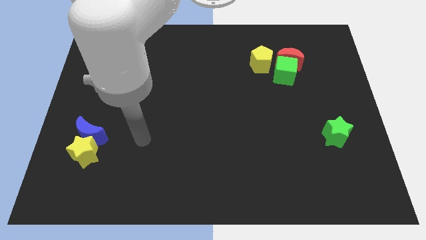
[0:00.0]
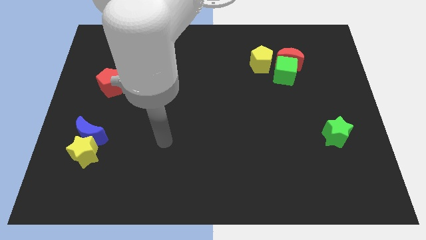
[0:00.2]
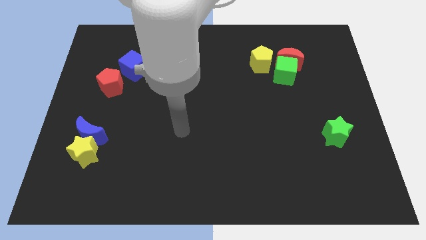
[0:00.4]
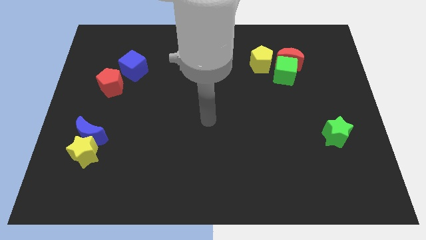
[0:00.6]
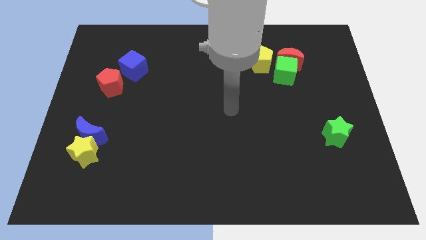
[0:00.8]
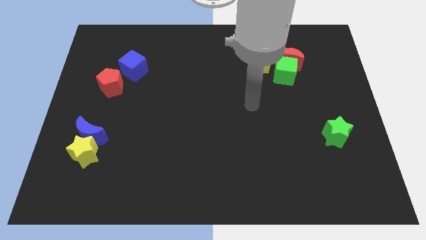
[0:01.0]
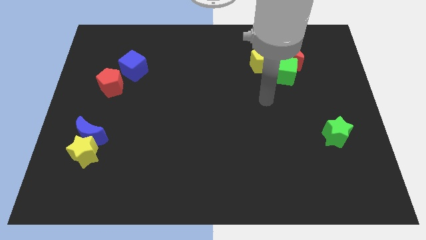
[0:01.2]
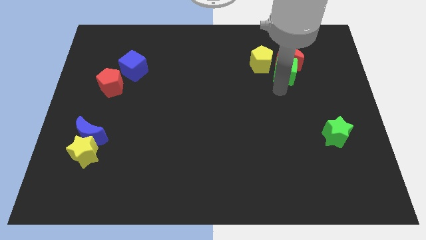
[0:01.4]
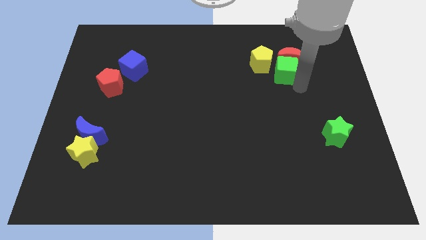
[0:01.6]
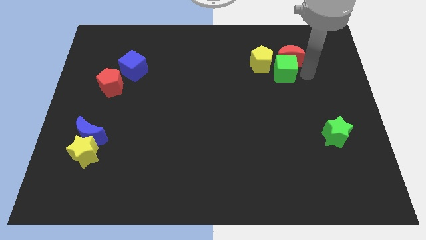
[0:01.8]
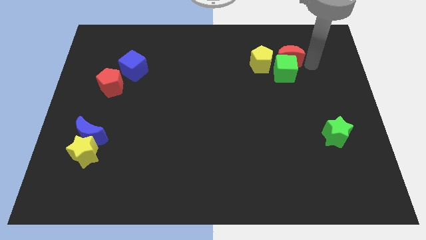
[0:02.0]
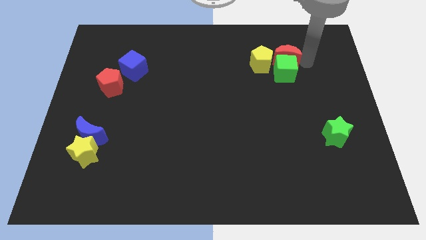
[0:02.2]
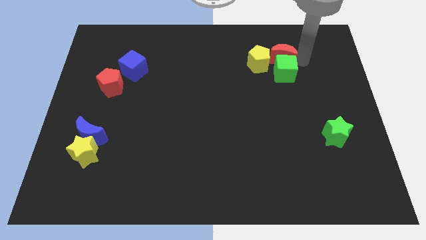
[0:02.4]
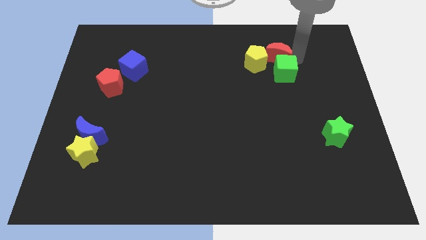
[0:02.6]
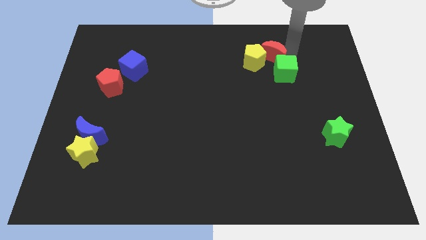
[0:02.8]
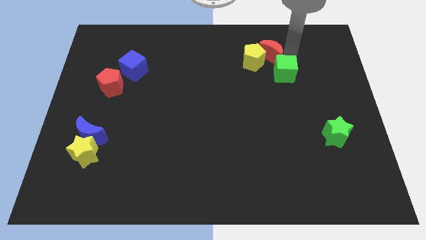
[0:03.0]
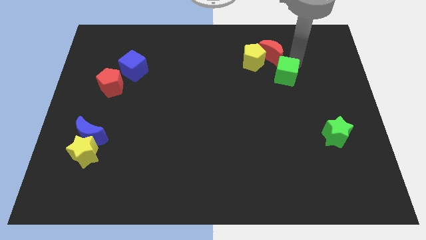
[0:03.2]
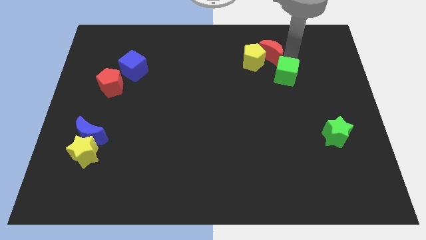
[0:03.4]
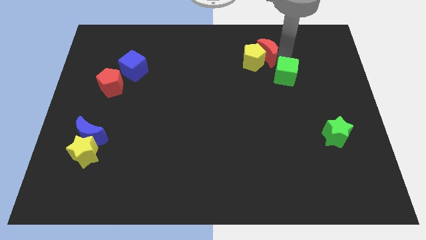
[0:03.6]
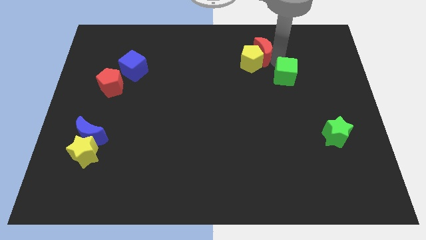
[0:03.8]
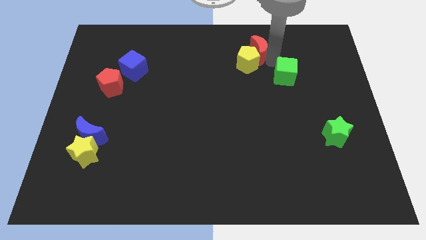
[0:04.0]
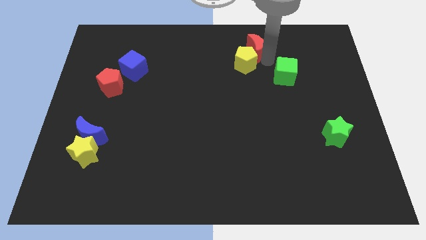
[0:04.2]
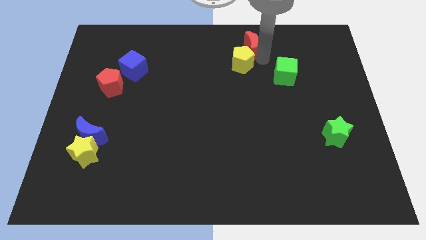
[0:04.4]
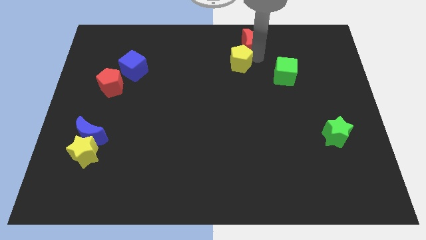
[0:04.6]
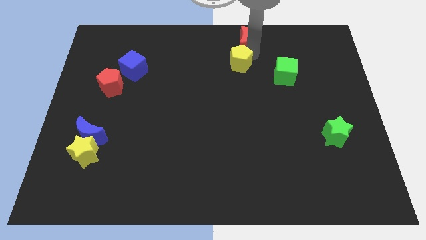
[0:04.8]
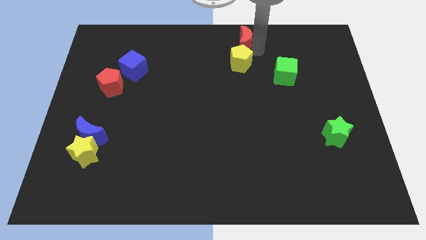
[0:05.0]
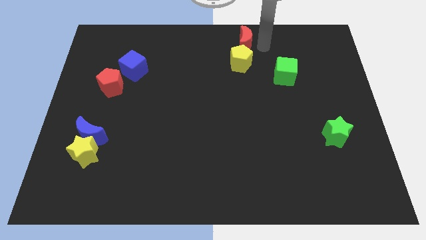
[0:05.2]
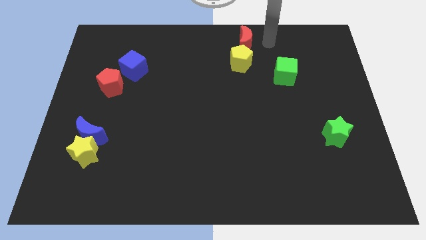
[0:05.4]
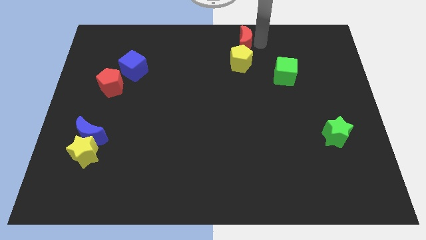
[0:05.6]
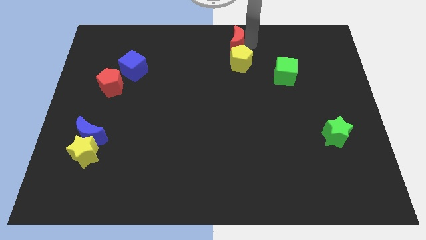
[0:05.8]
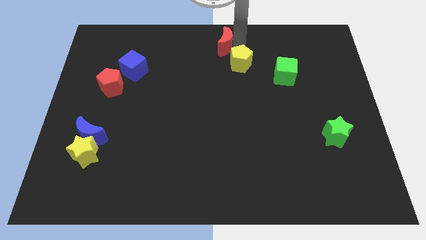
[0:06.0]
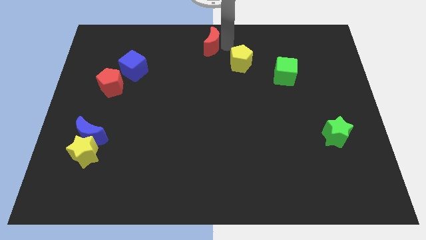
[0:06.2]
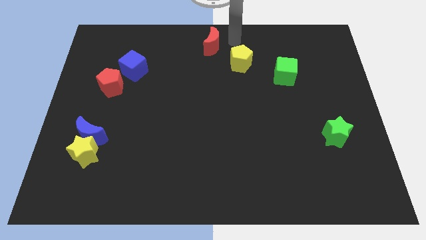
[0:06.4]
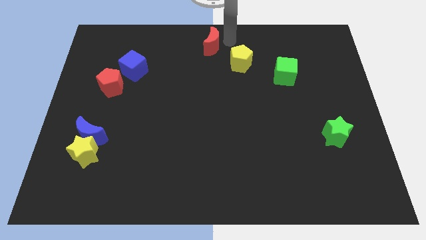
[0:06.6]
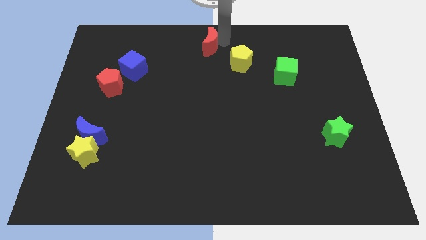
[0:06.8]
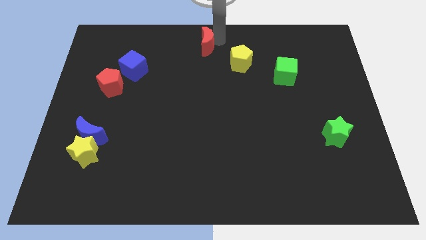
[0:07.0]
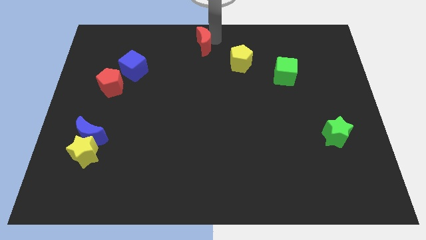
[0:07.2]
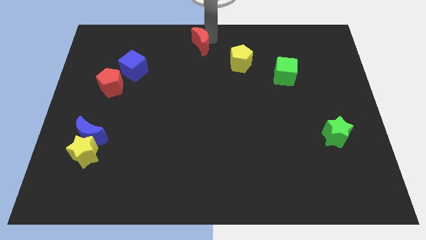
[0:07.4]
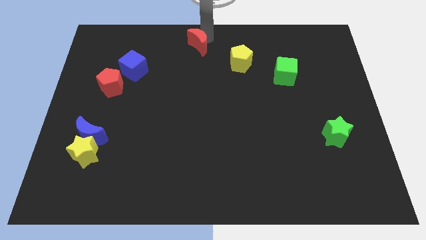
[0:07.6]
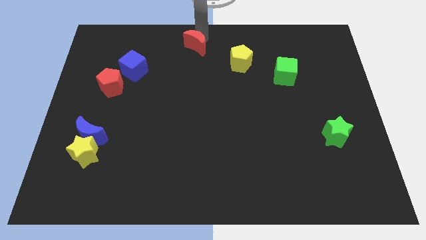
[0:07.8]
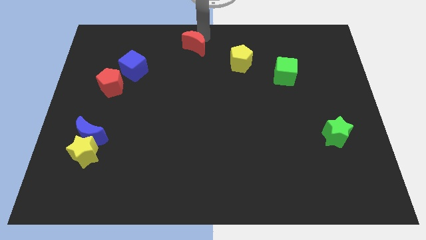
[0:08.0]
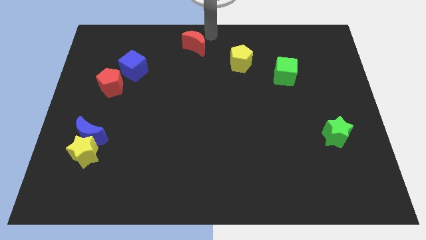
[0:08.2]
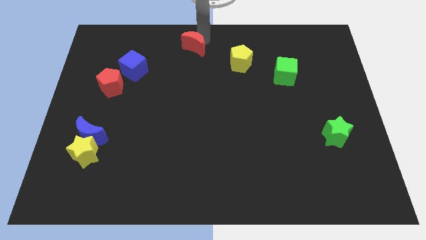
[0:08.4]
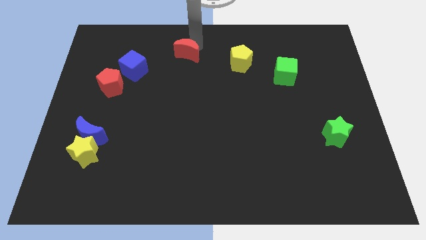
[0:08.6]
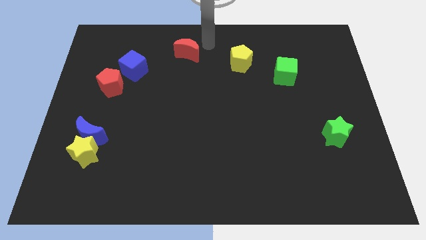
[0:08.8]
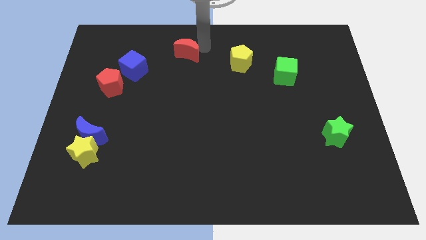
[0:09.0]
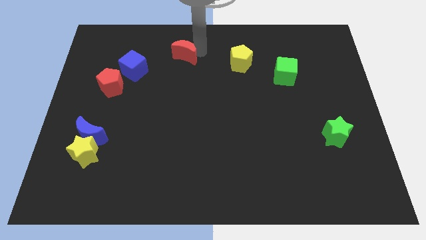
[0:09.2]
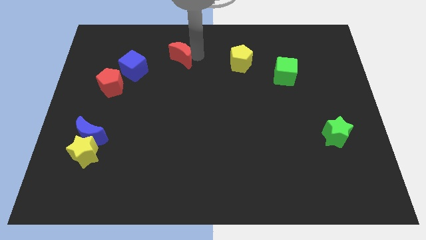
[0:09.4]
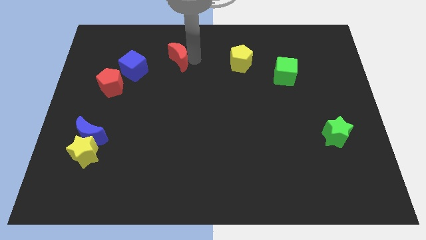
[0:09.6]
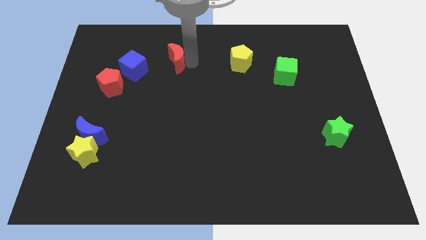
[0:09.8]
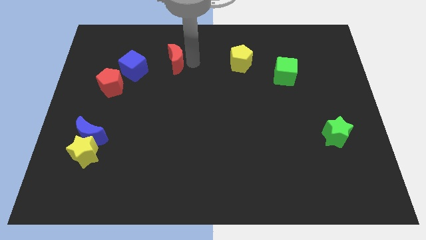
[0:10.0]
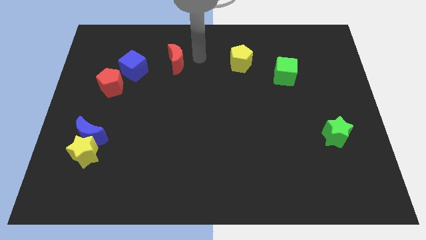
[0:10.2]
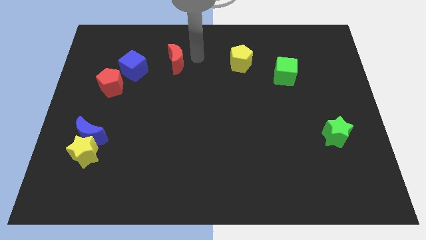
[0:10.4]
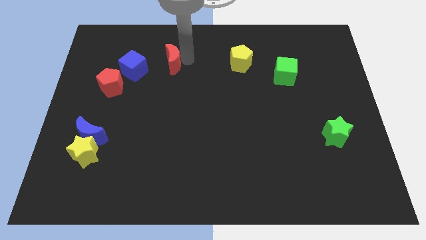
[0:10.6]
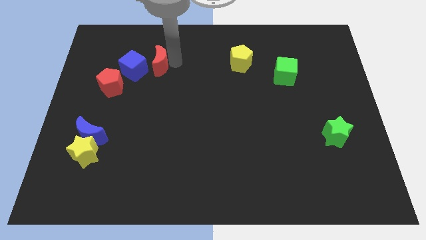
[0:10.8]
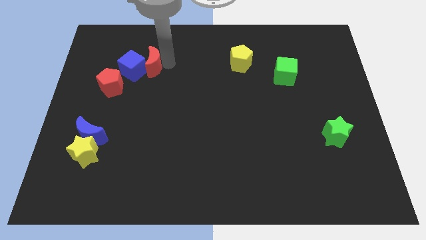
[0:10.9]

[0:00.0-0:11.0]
put the red moon next to the blue cube

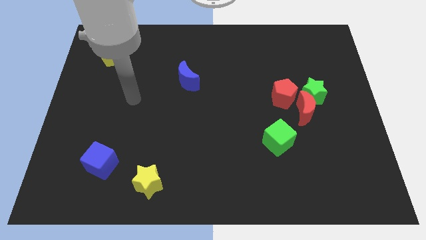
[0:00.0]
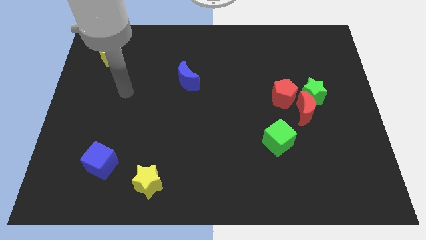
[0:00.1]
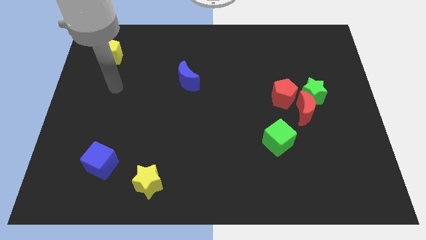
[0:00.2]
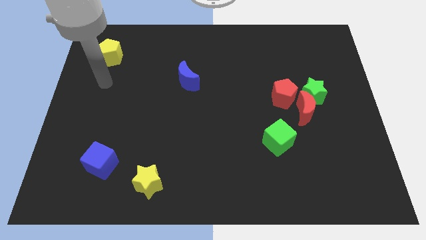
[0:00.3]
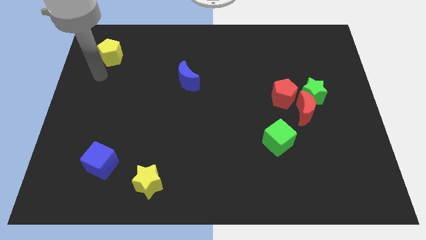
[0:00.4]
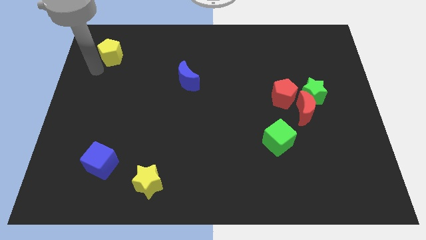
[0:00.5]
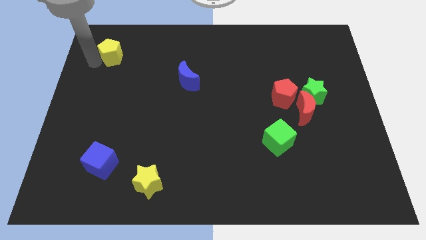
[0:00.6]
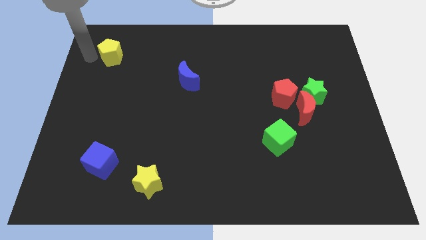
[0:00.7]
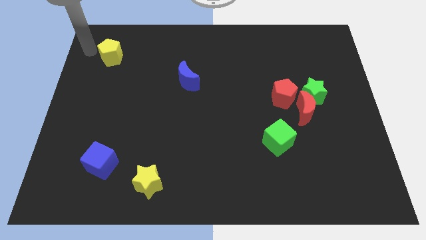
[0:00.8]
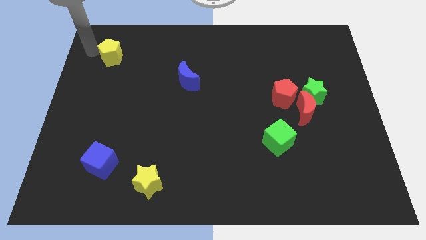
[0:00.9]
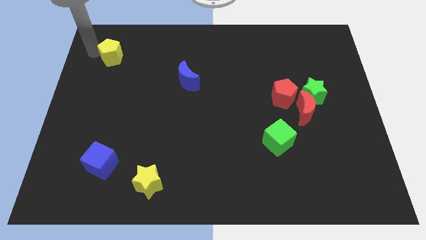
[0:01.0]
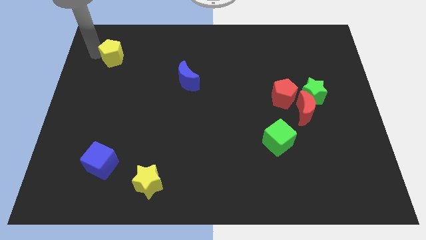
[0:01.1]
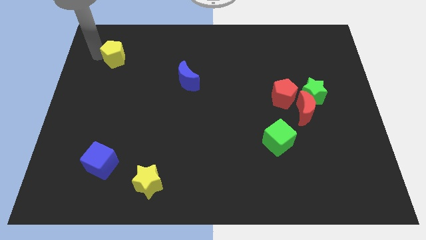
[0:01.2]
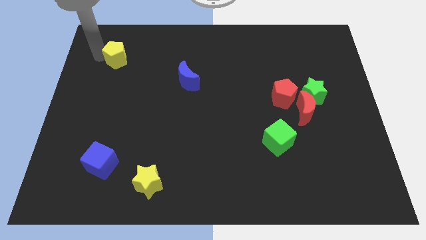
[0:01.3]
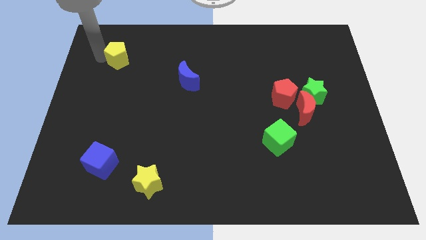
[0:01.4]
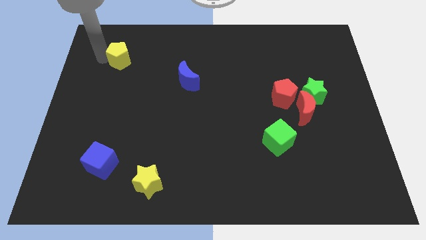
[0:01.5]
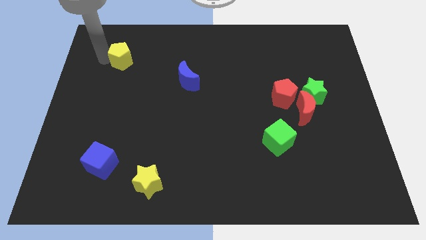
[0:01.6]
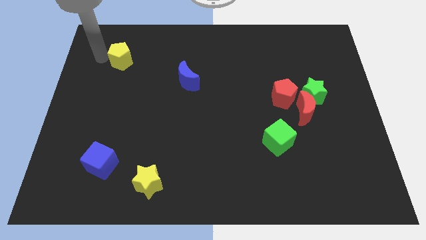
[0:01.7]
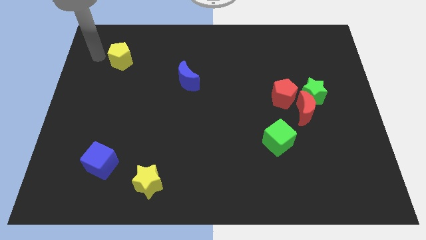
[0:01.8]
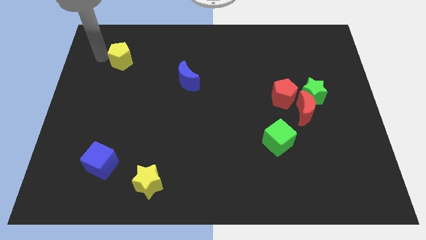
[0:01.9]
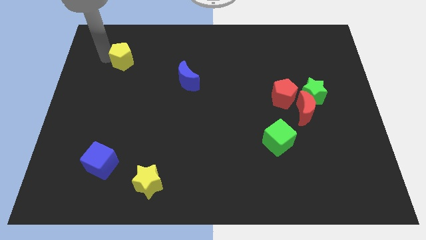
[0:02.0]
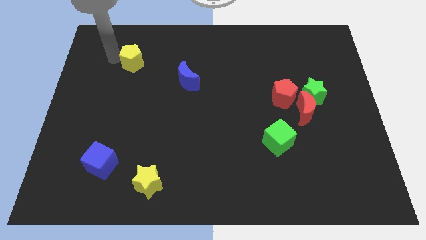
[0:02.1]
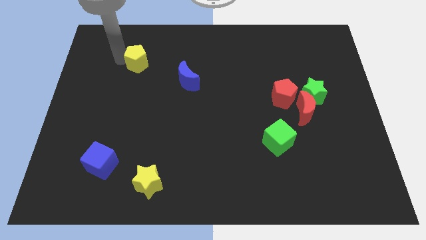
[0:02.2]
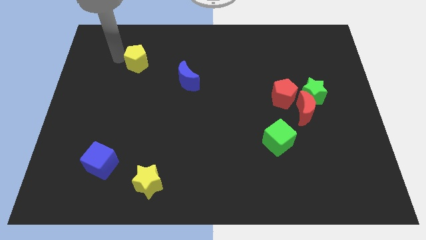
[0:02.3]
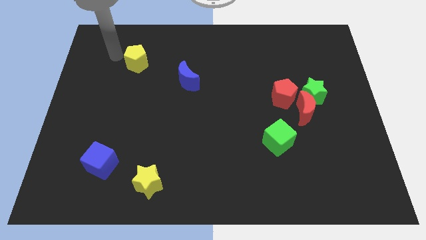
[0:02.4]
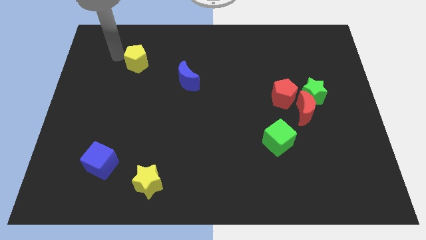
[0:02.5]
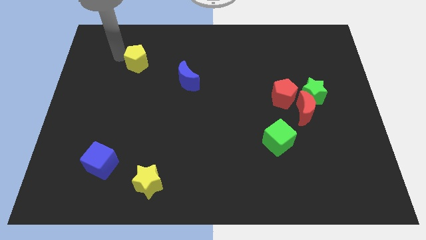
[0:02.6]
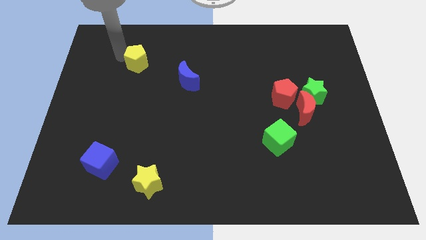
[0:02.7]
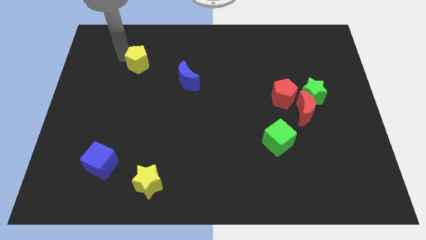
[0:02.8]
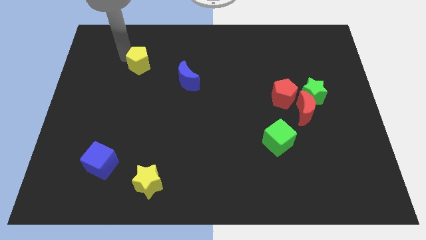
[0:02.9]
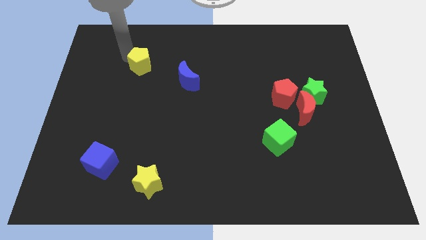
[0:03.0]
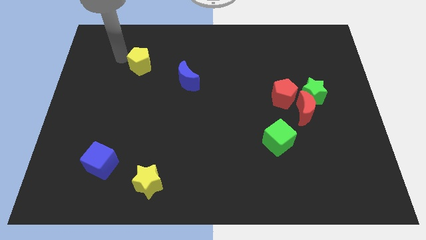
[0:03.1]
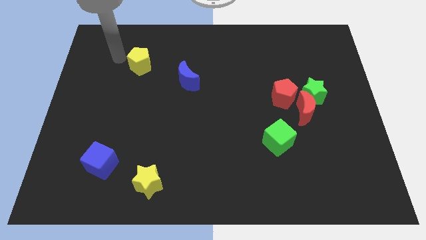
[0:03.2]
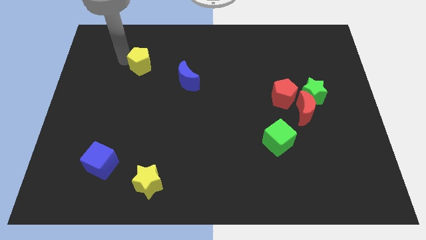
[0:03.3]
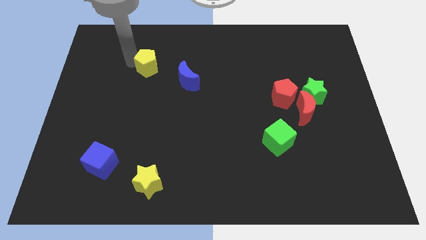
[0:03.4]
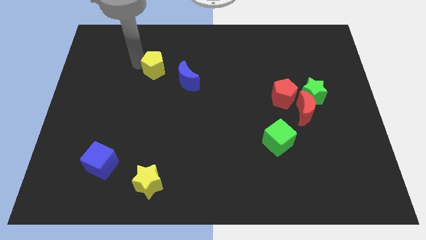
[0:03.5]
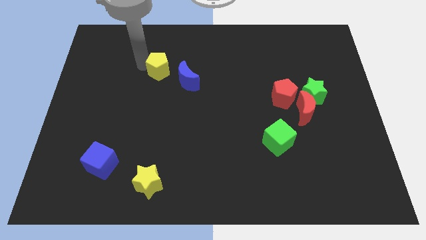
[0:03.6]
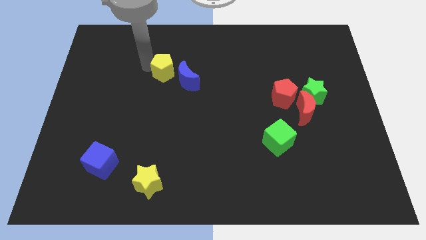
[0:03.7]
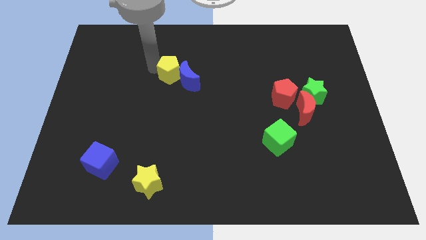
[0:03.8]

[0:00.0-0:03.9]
push the yellow pentagon next to the blue moon
